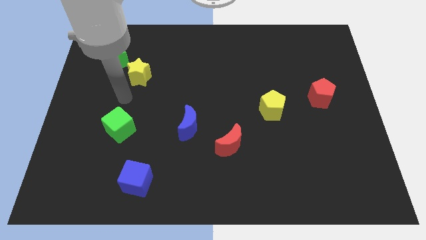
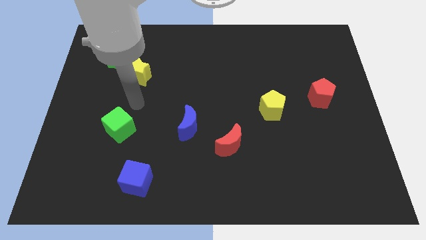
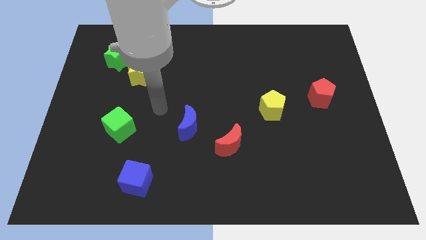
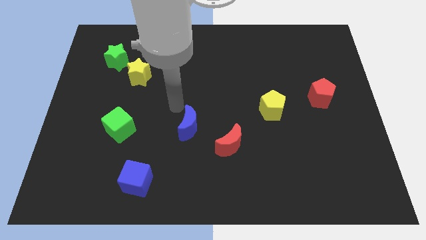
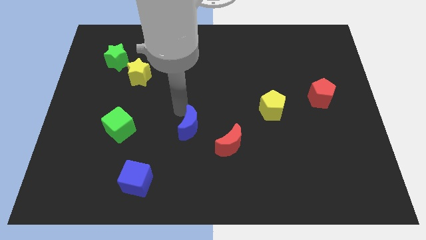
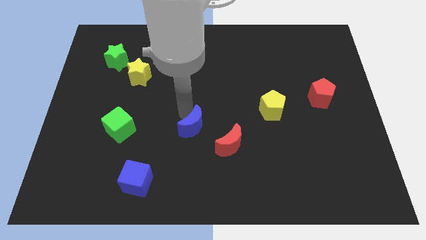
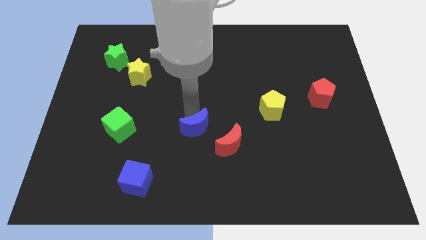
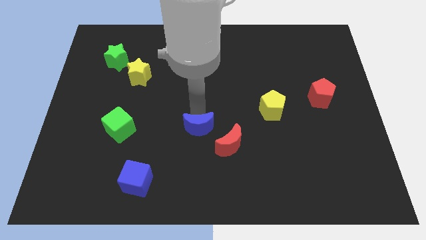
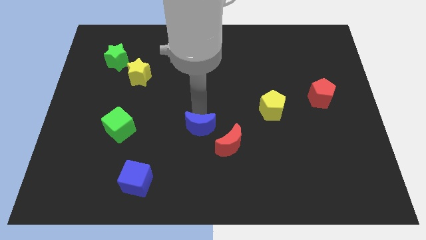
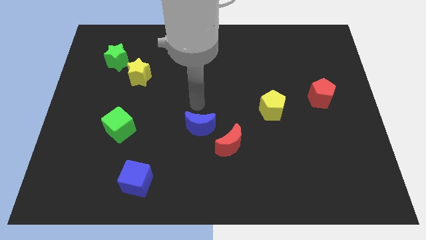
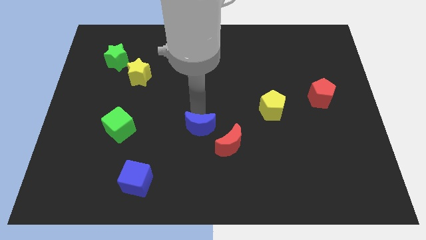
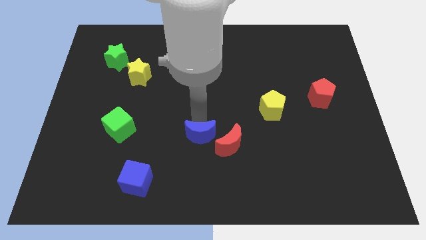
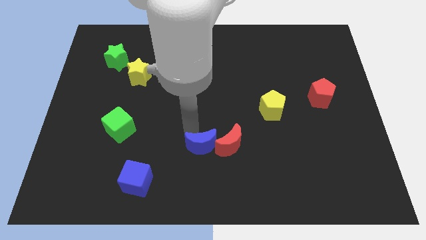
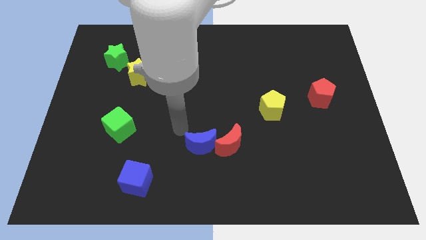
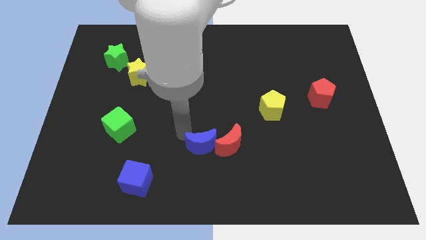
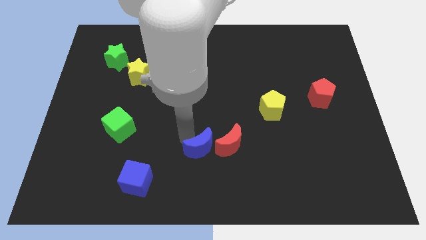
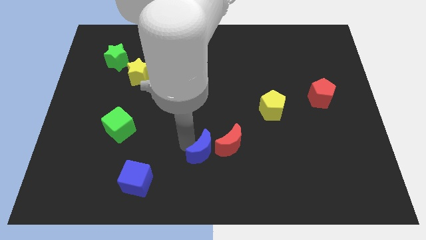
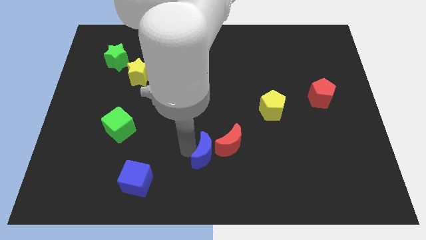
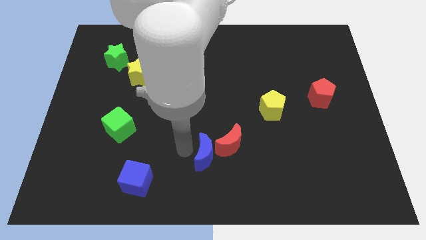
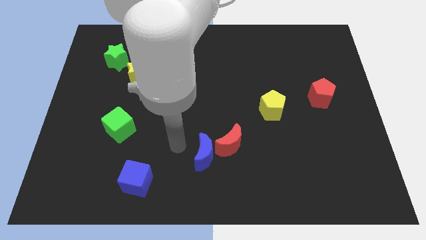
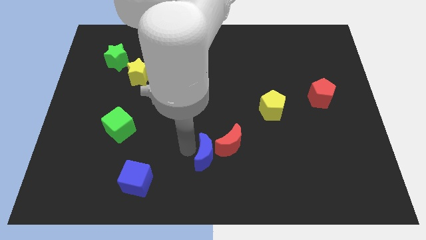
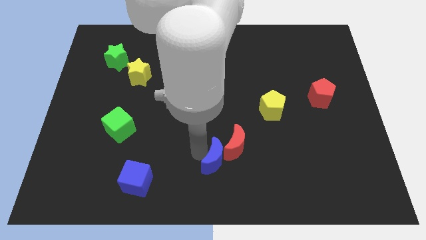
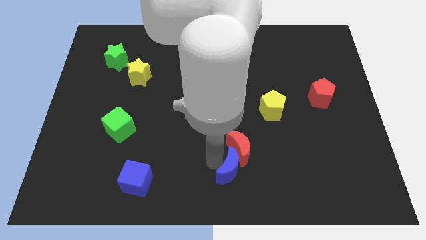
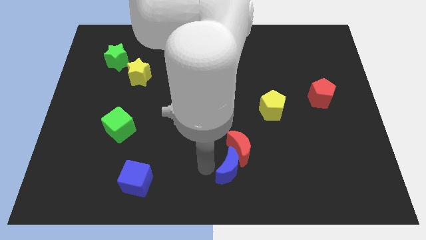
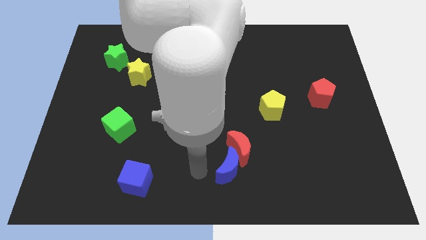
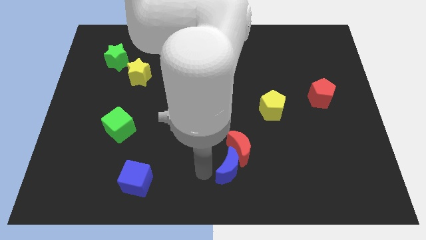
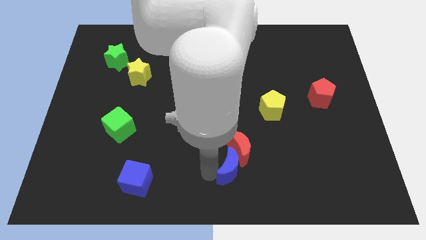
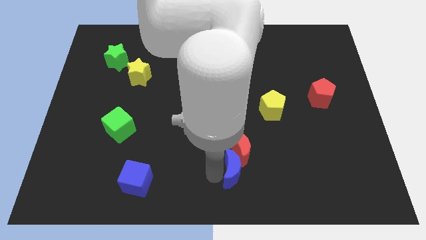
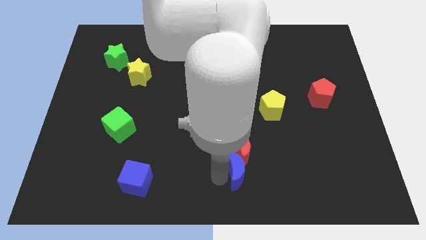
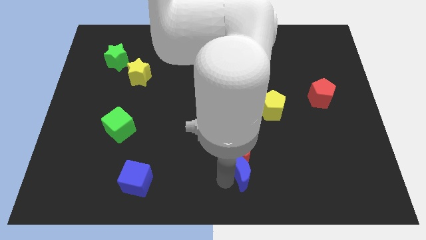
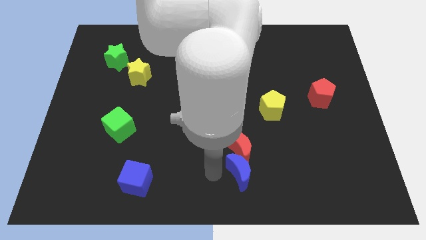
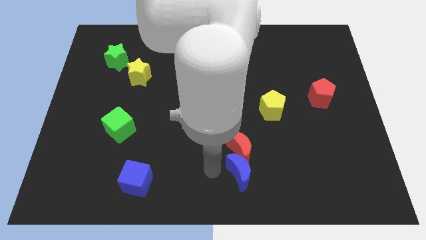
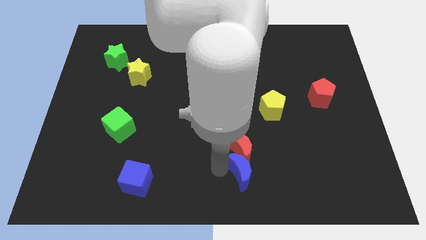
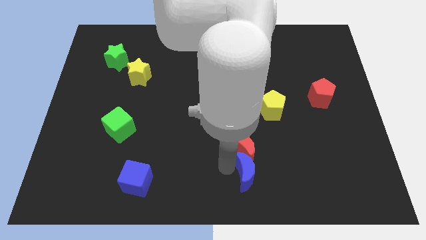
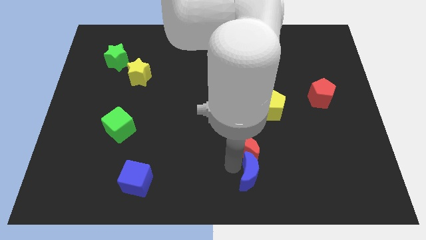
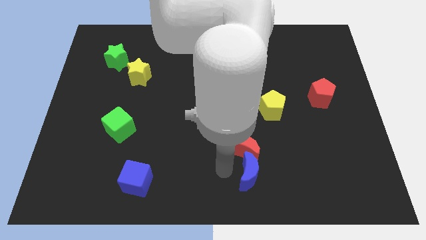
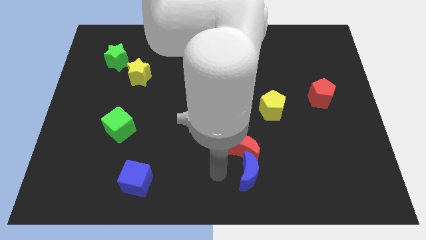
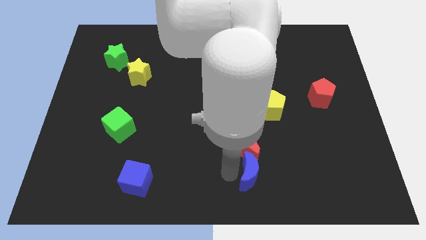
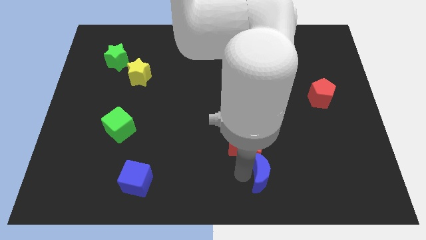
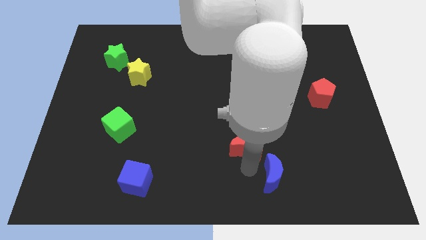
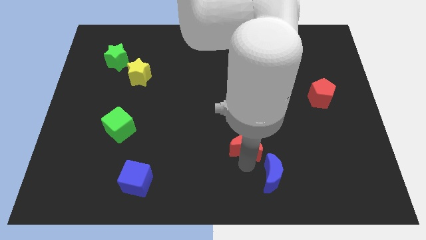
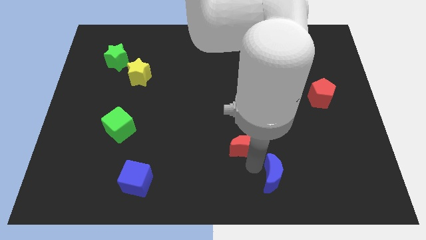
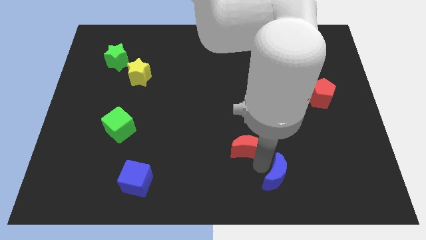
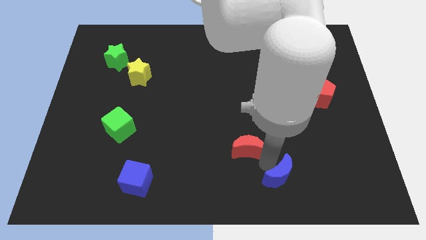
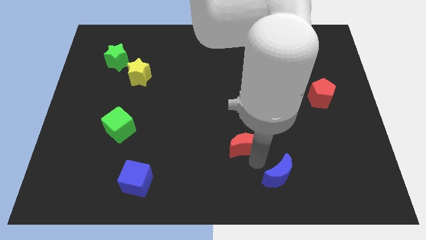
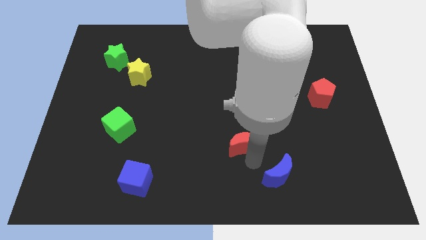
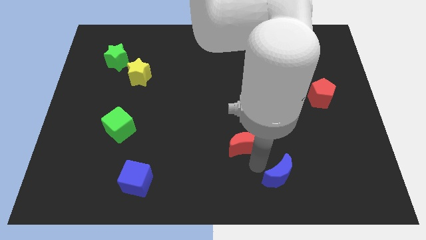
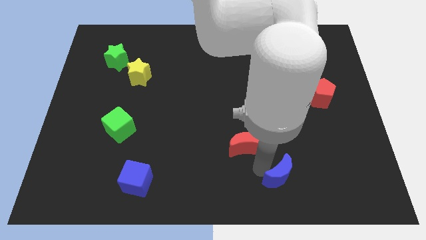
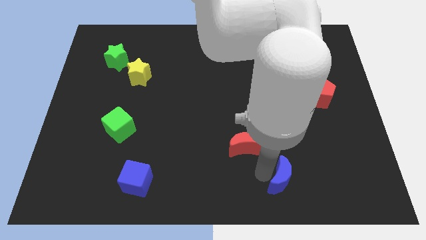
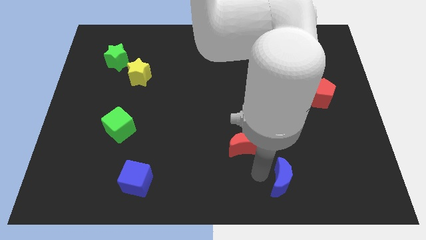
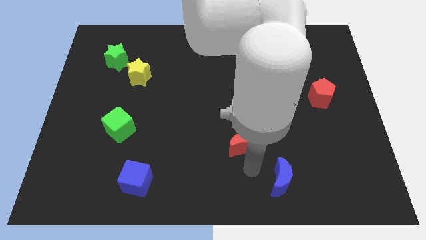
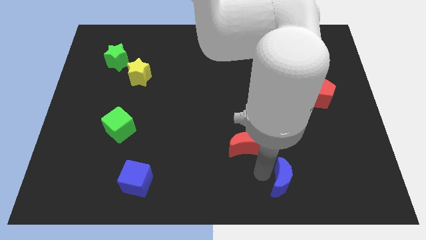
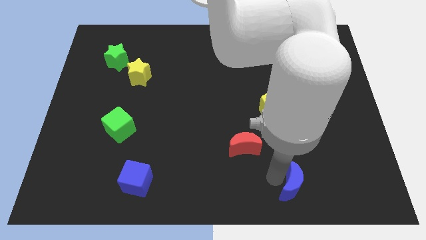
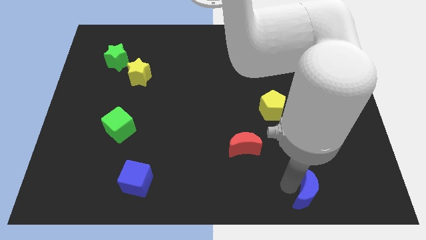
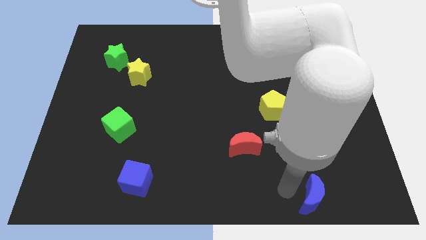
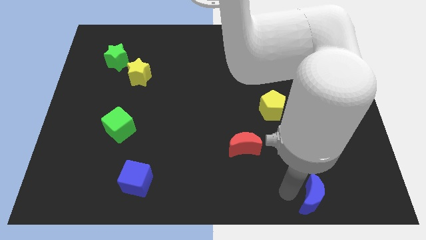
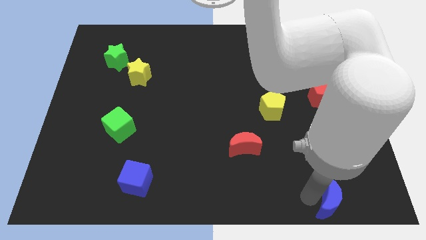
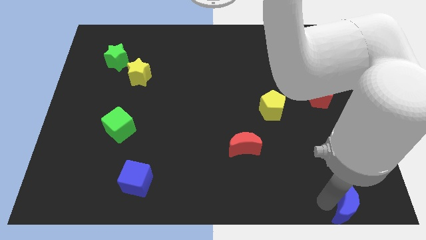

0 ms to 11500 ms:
move the blue moon to the lower right corner

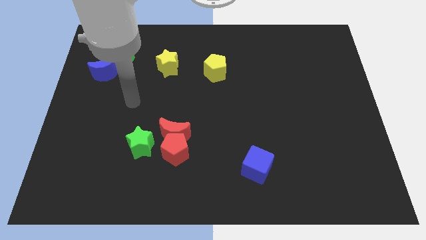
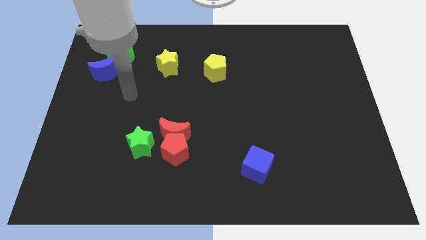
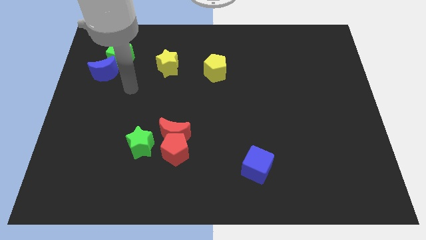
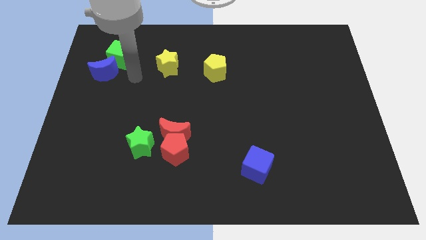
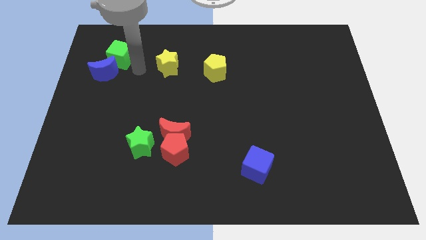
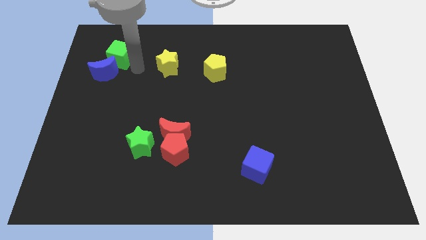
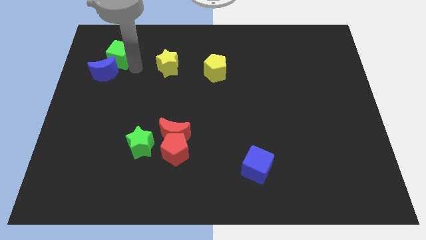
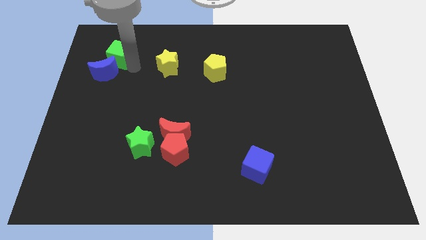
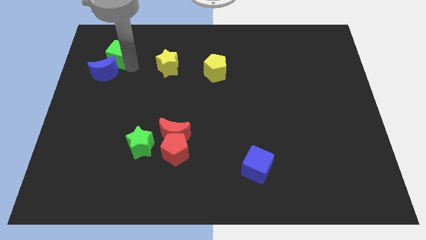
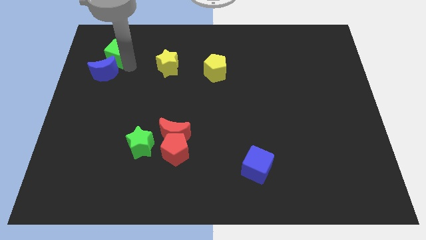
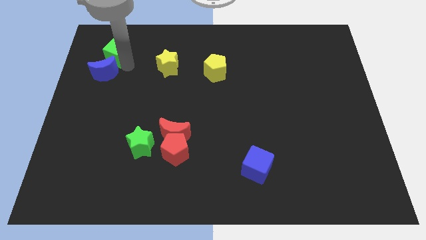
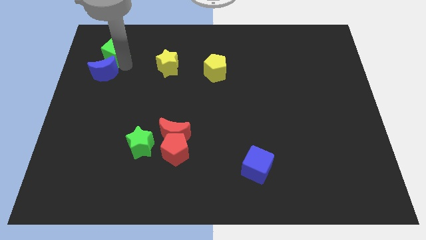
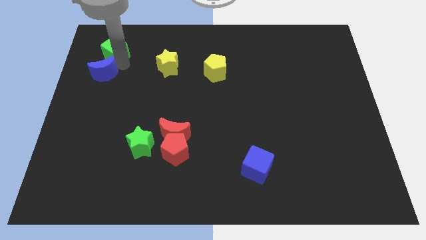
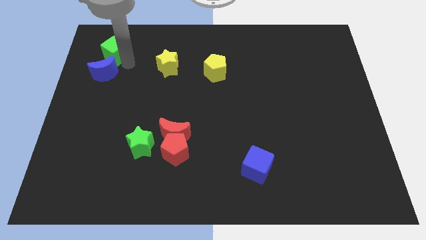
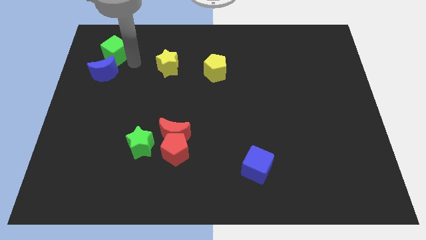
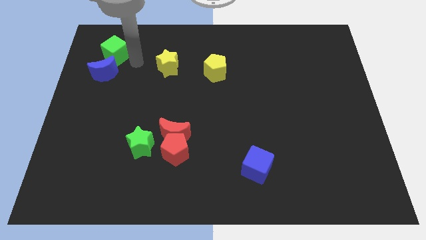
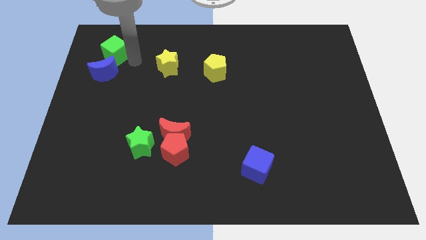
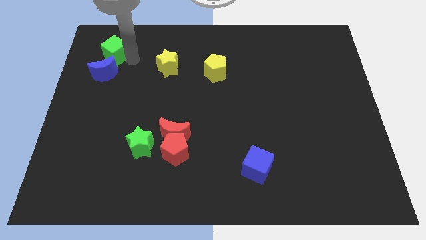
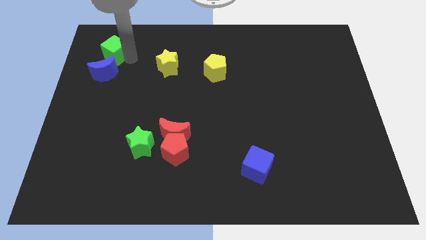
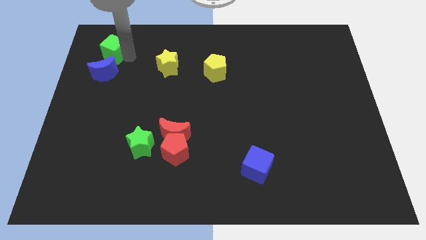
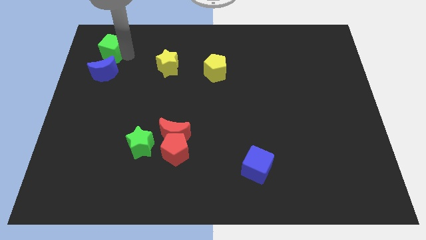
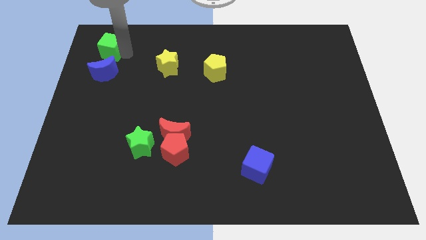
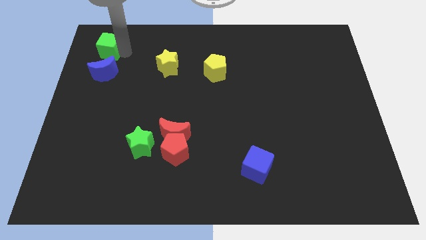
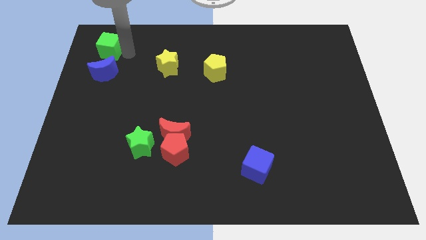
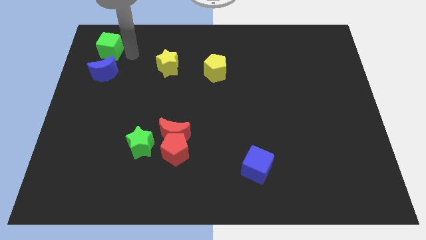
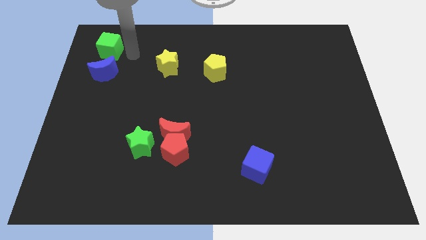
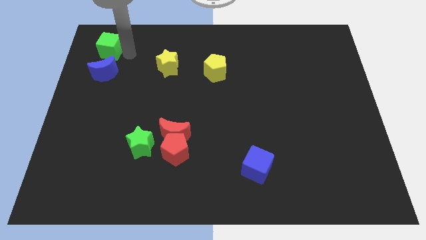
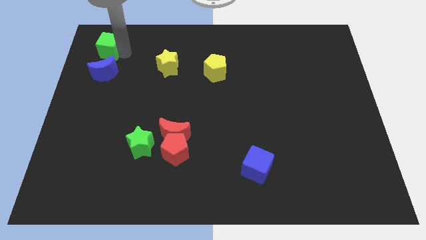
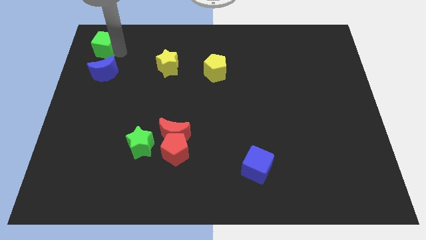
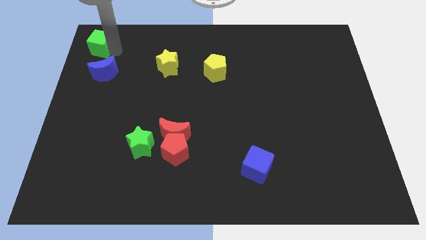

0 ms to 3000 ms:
put the green cube to the top left of the board
